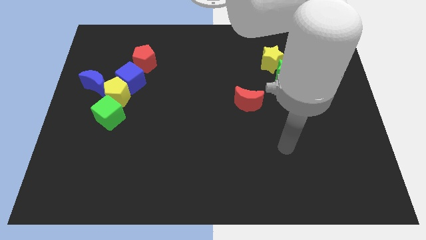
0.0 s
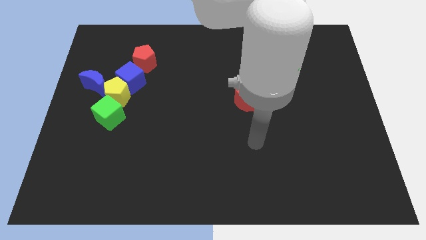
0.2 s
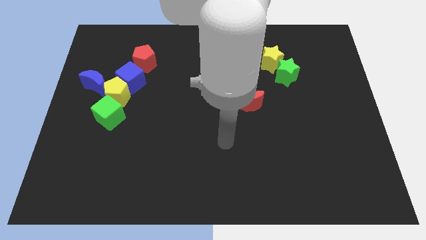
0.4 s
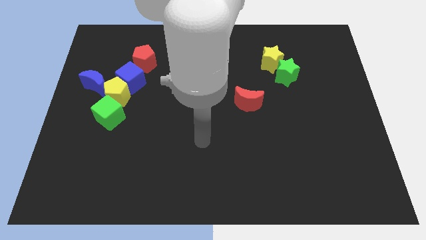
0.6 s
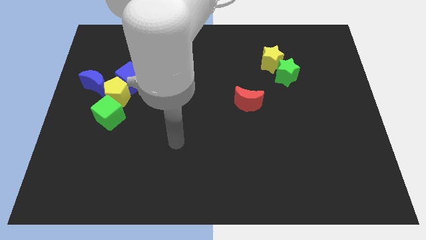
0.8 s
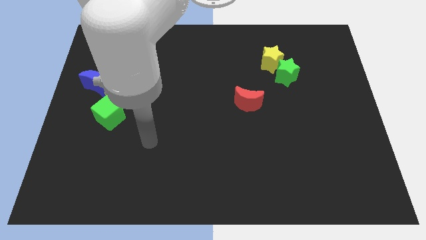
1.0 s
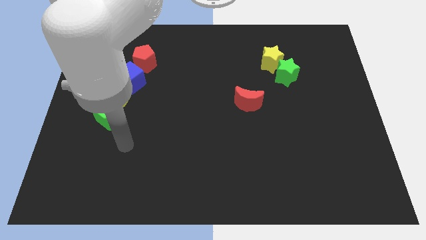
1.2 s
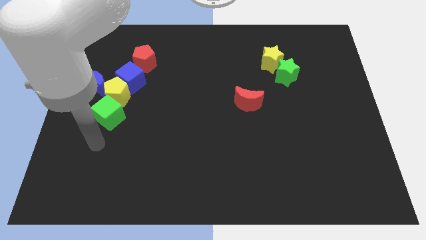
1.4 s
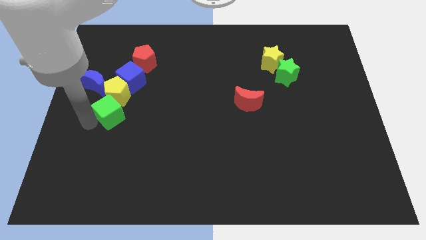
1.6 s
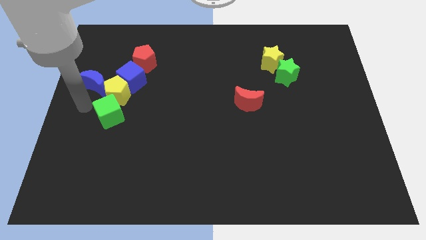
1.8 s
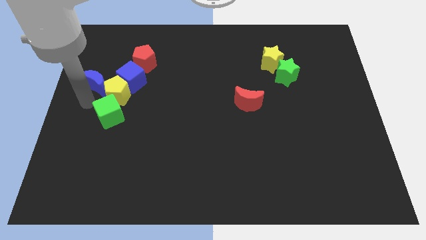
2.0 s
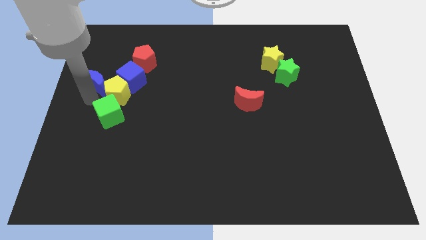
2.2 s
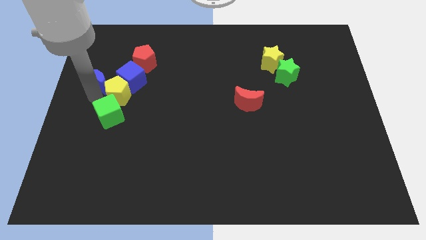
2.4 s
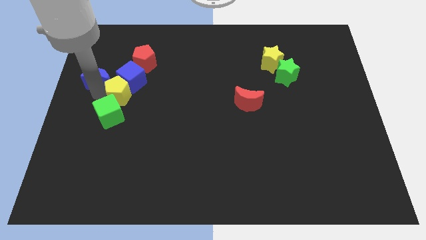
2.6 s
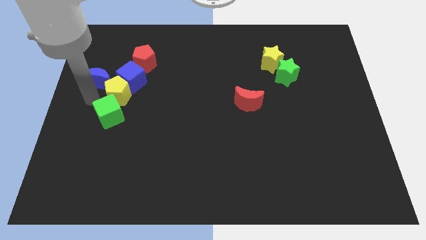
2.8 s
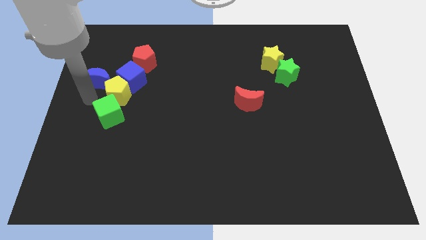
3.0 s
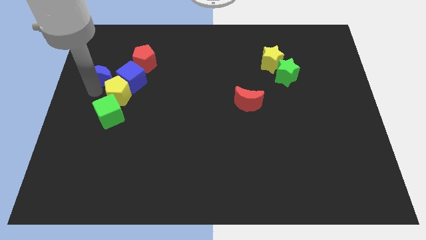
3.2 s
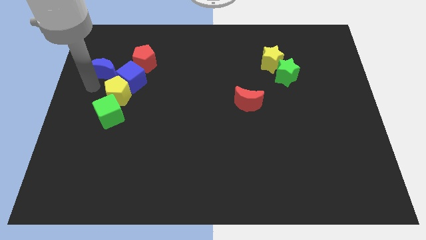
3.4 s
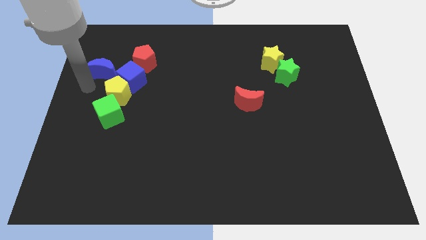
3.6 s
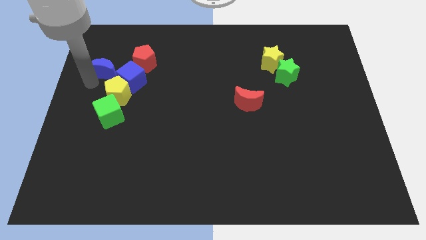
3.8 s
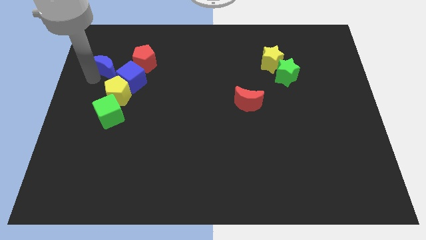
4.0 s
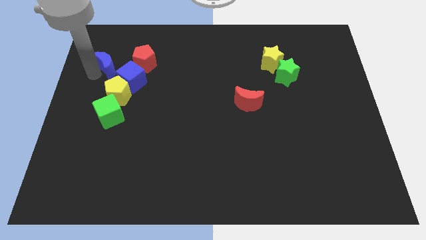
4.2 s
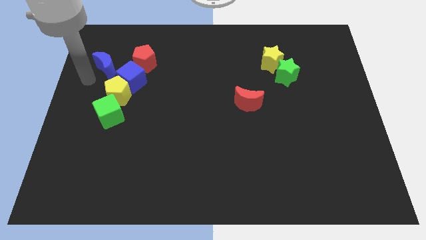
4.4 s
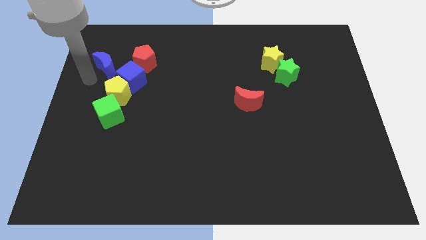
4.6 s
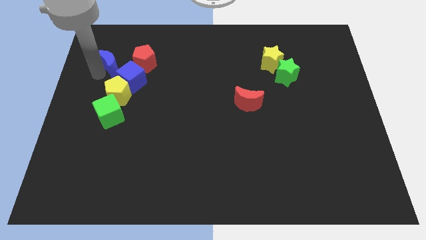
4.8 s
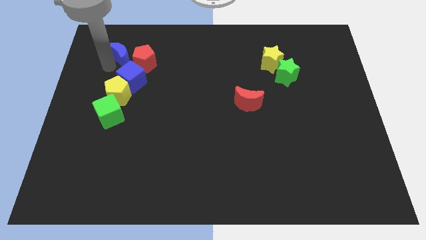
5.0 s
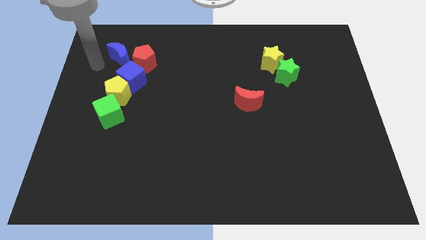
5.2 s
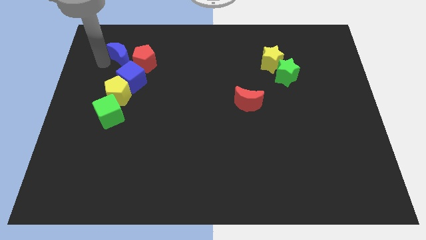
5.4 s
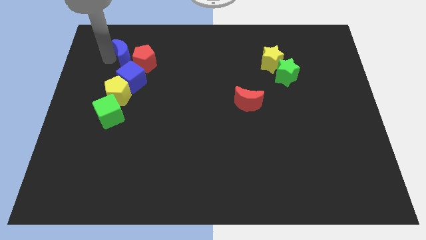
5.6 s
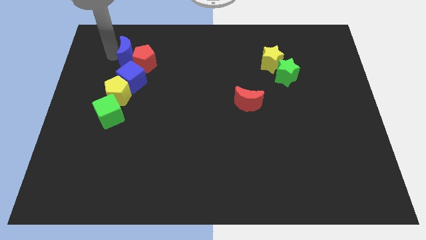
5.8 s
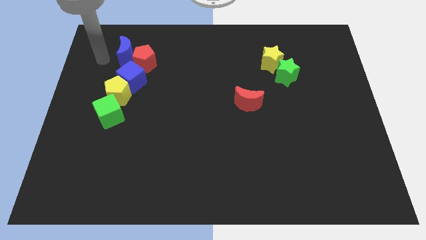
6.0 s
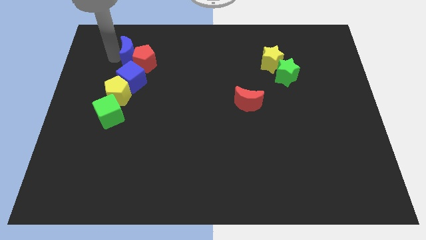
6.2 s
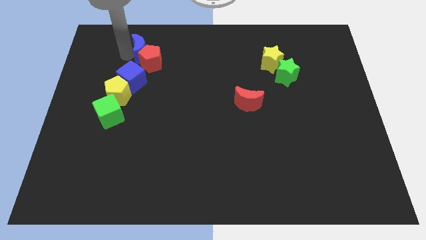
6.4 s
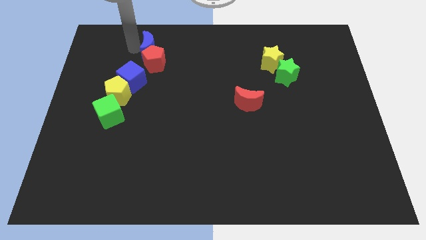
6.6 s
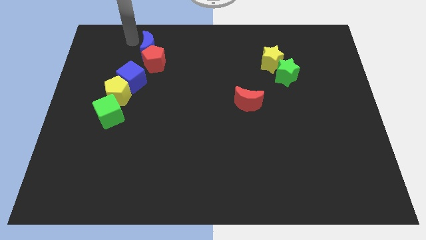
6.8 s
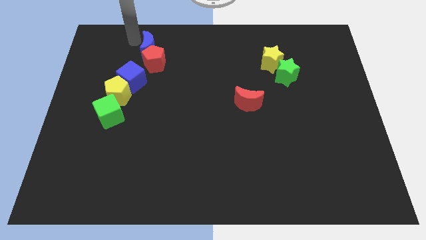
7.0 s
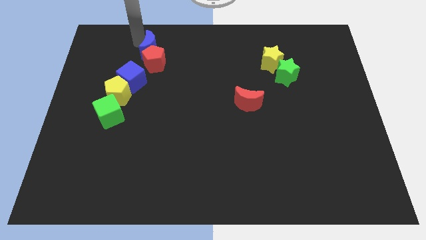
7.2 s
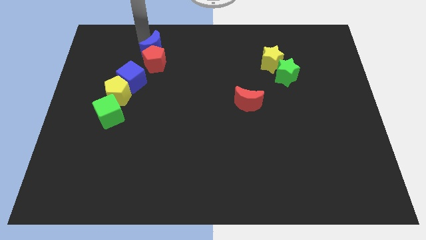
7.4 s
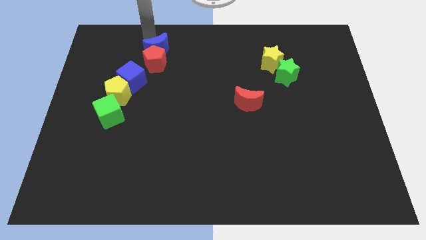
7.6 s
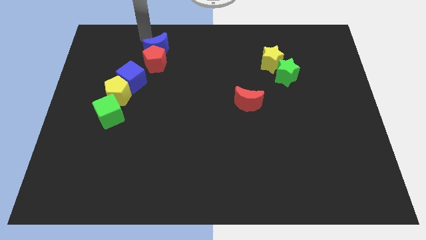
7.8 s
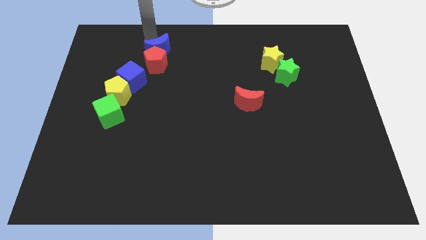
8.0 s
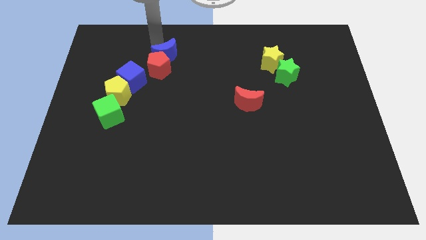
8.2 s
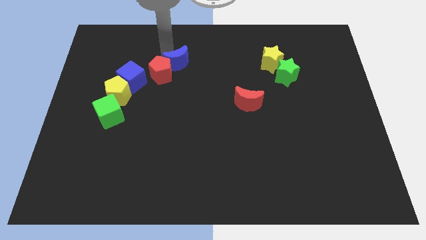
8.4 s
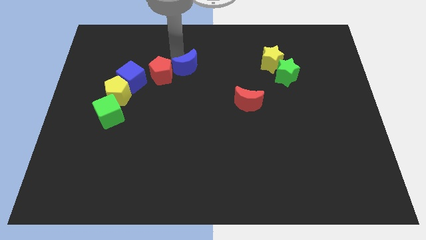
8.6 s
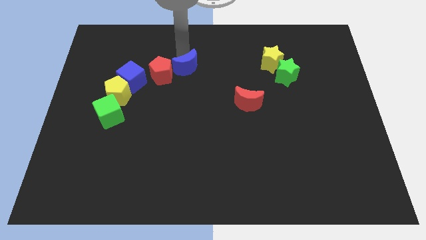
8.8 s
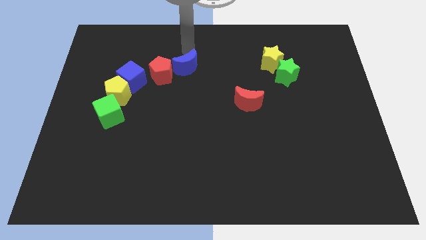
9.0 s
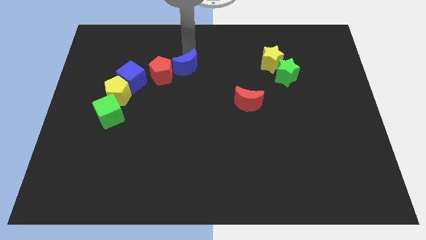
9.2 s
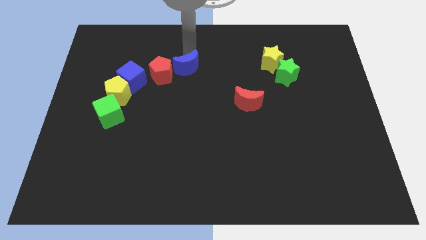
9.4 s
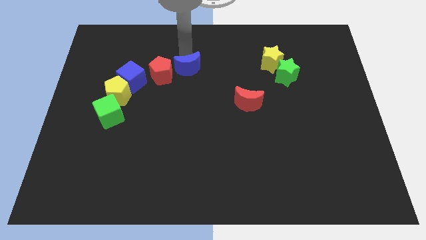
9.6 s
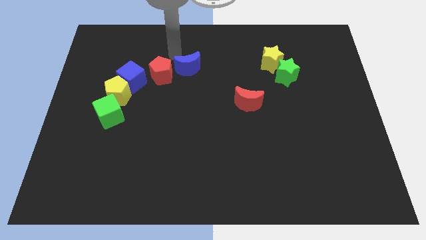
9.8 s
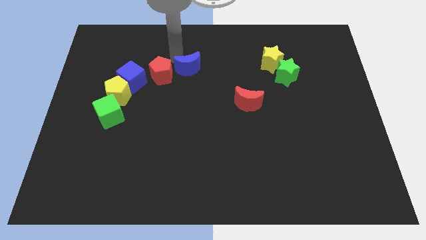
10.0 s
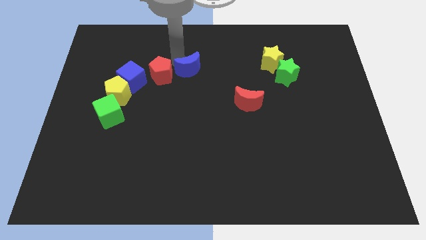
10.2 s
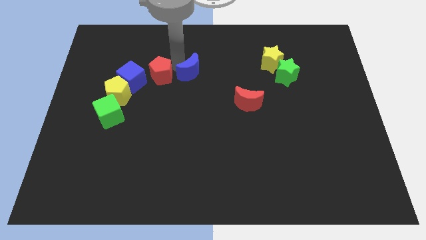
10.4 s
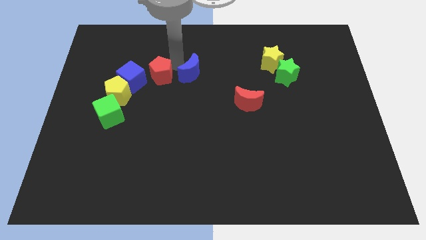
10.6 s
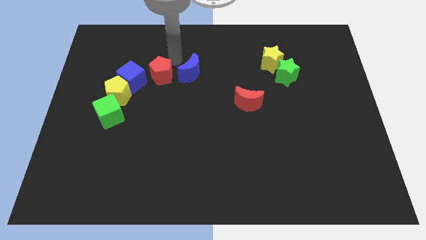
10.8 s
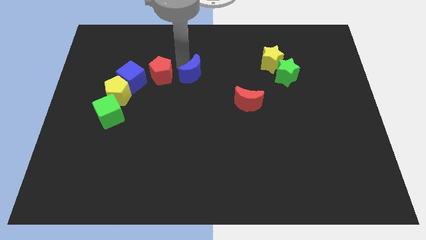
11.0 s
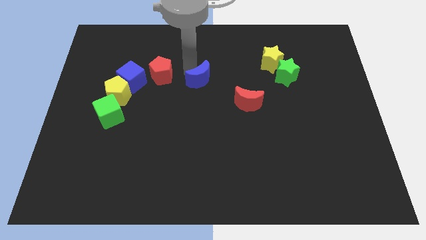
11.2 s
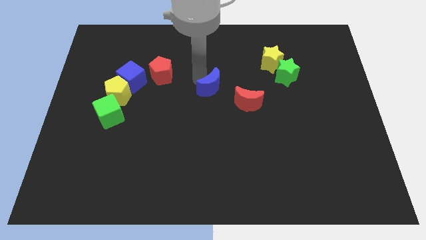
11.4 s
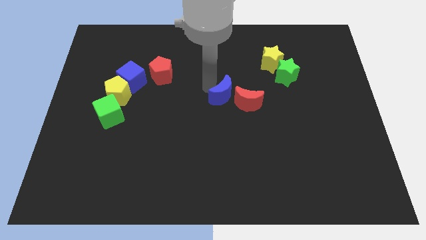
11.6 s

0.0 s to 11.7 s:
move the blue moon towards the red moon

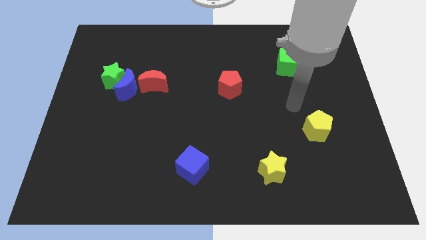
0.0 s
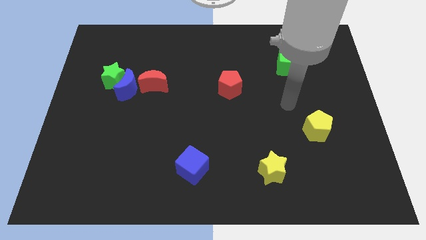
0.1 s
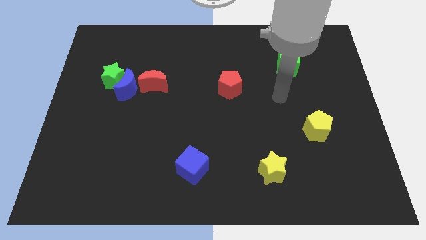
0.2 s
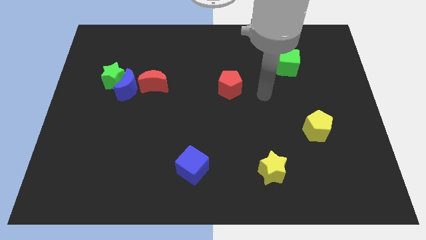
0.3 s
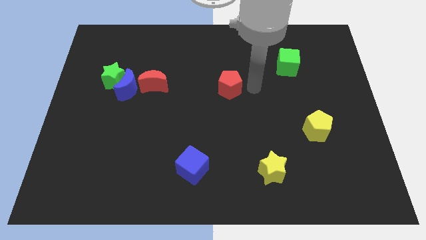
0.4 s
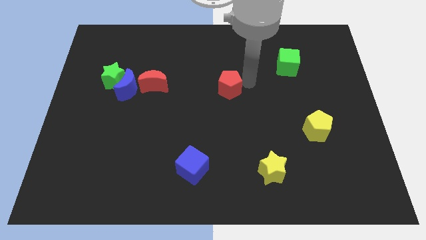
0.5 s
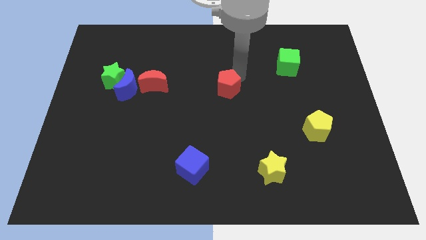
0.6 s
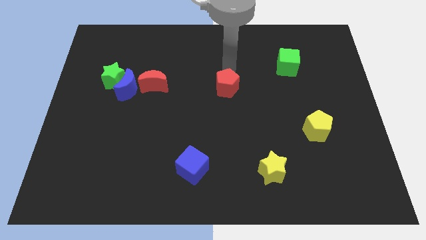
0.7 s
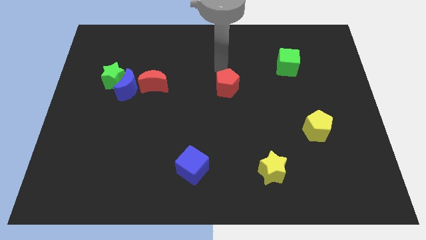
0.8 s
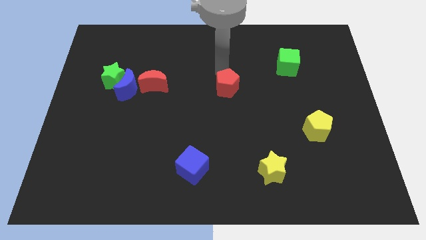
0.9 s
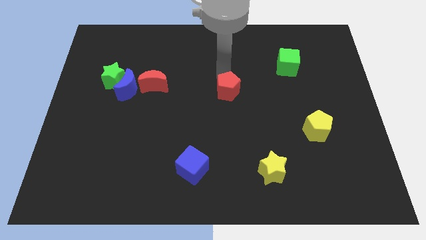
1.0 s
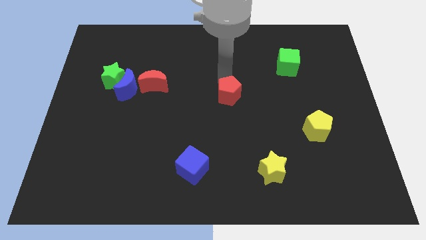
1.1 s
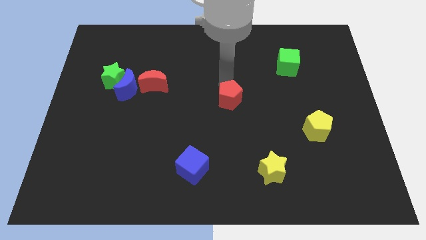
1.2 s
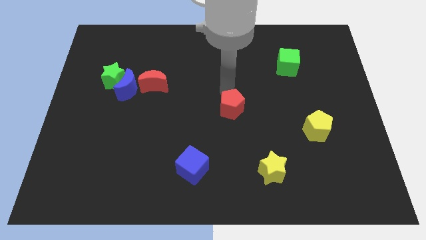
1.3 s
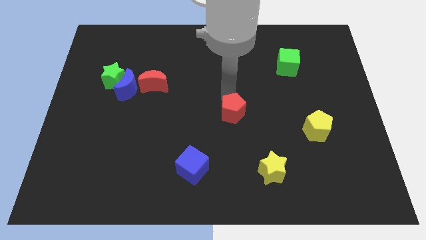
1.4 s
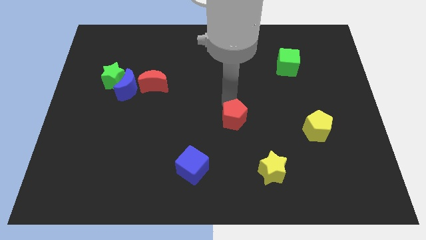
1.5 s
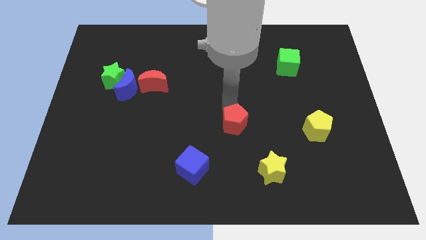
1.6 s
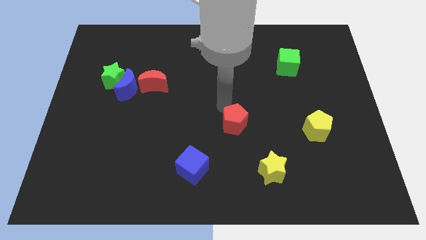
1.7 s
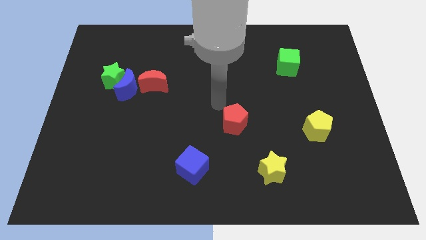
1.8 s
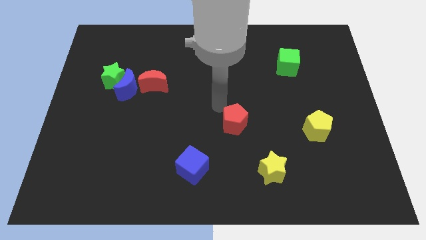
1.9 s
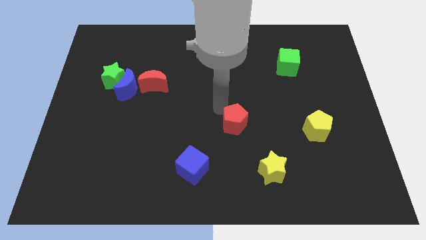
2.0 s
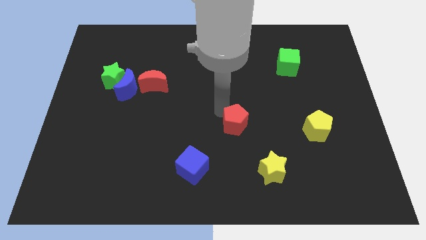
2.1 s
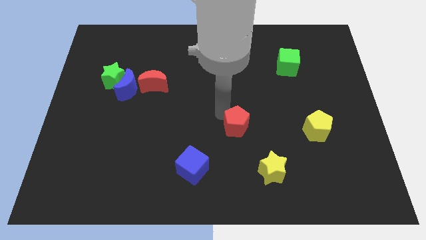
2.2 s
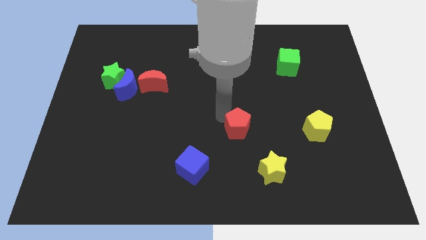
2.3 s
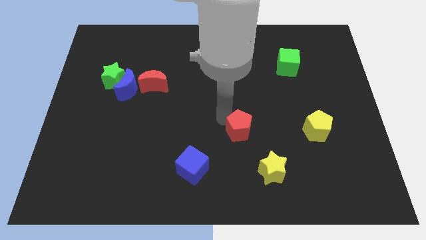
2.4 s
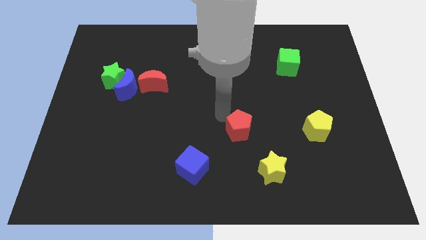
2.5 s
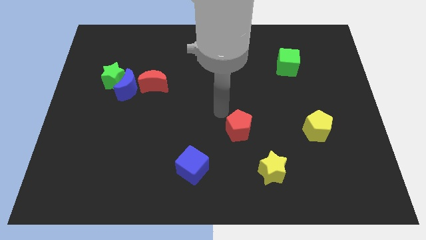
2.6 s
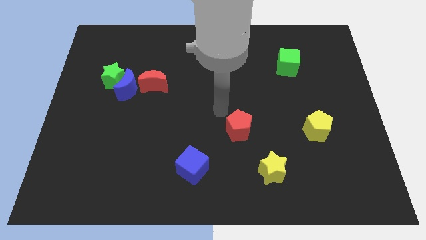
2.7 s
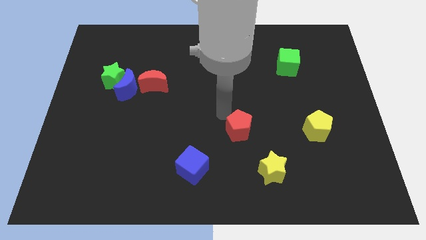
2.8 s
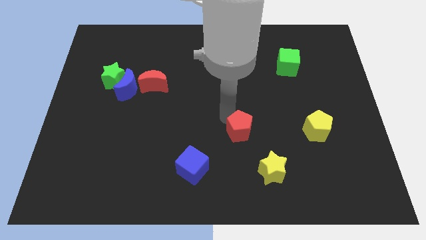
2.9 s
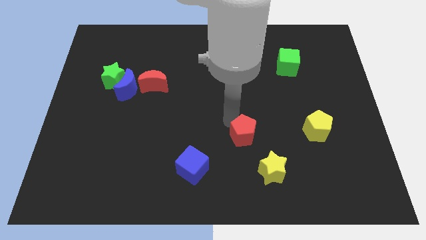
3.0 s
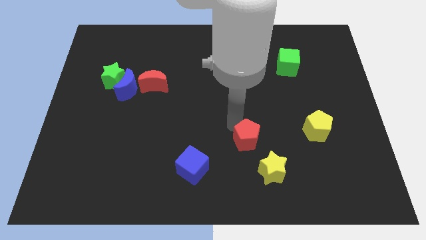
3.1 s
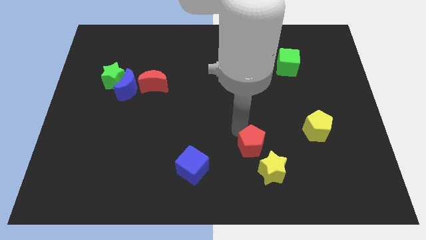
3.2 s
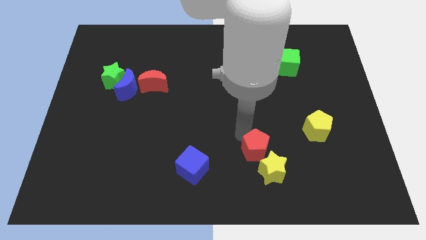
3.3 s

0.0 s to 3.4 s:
put the red pentagon next to the yellow star
